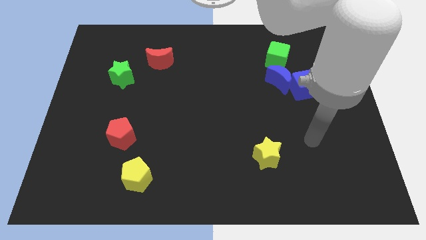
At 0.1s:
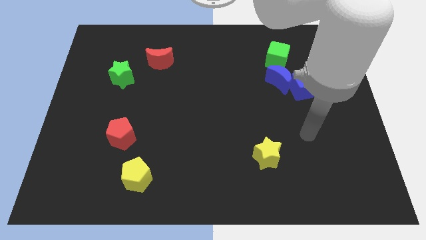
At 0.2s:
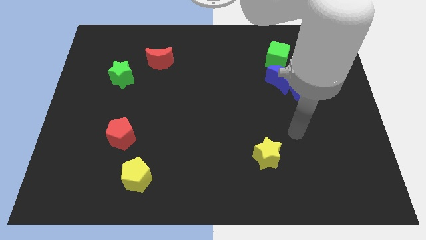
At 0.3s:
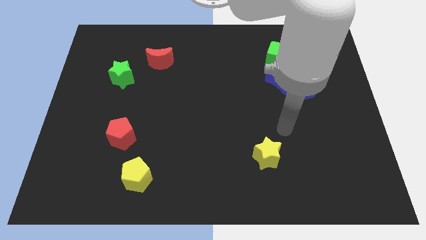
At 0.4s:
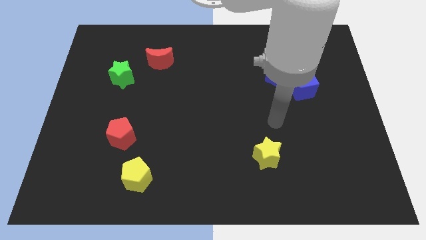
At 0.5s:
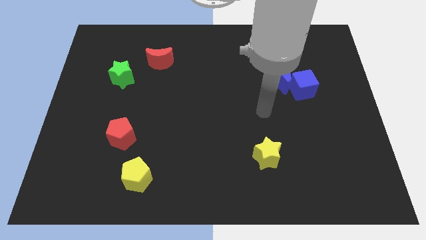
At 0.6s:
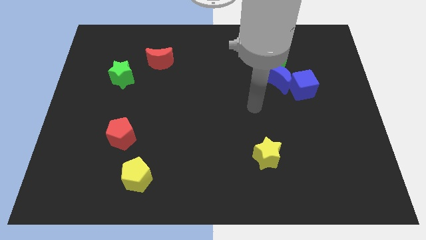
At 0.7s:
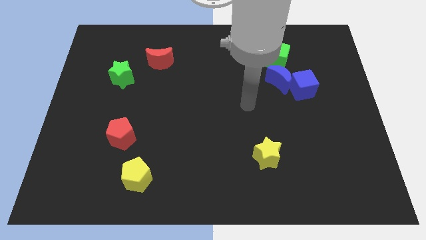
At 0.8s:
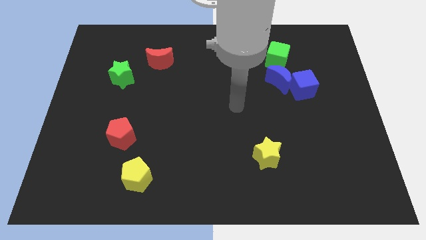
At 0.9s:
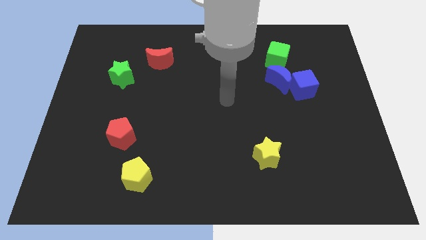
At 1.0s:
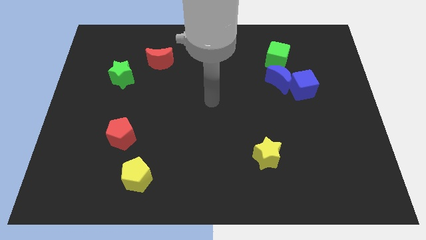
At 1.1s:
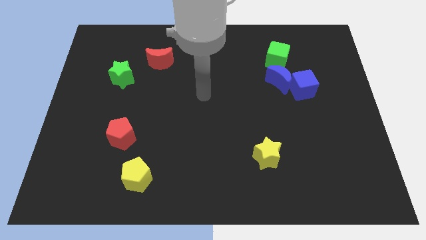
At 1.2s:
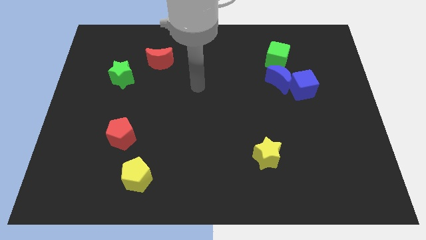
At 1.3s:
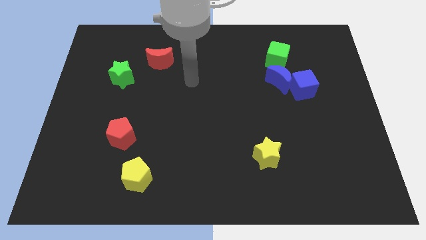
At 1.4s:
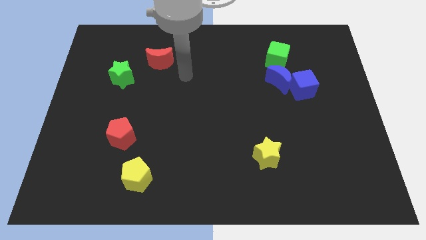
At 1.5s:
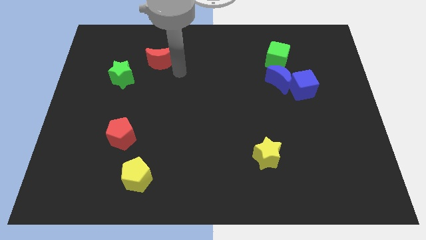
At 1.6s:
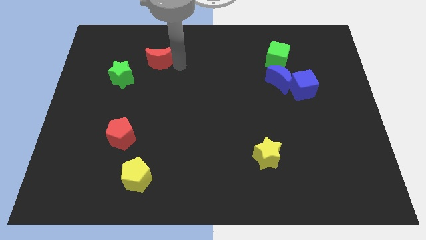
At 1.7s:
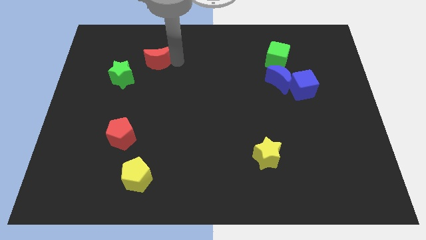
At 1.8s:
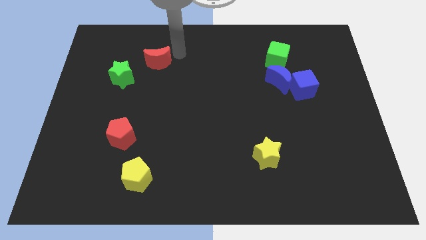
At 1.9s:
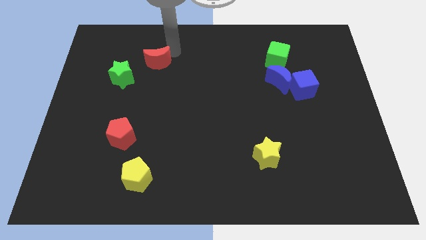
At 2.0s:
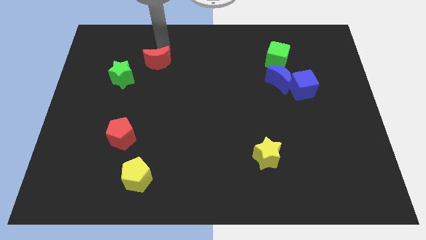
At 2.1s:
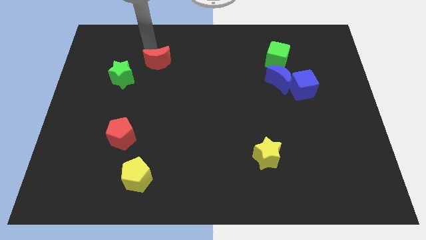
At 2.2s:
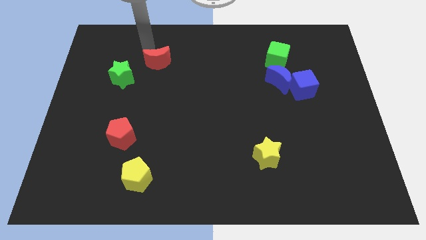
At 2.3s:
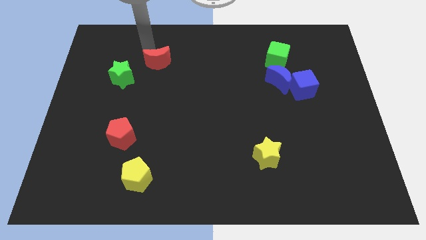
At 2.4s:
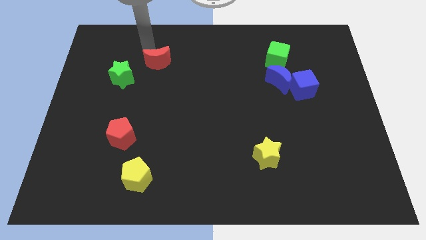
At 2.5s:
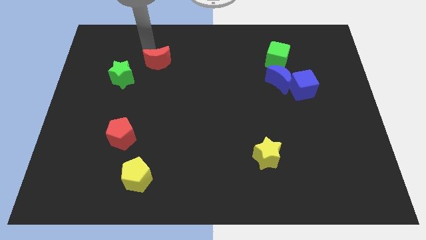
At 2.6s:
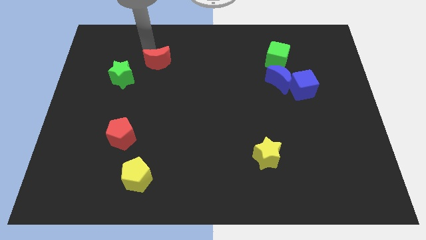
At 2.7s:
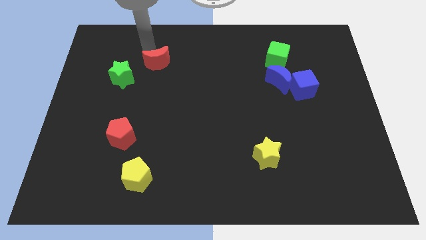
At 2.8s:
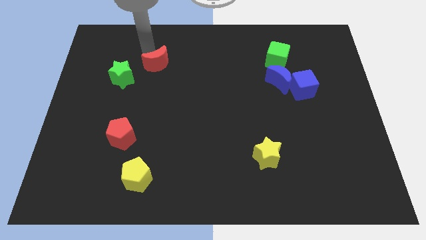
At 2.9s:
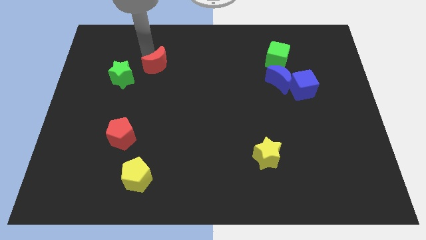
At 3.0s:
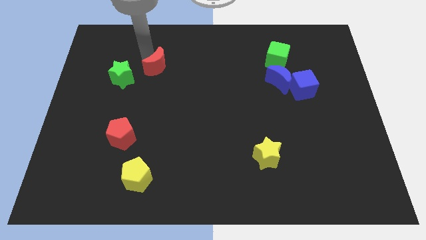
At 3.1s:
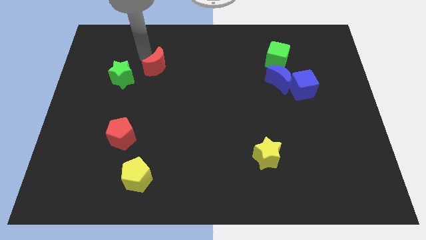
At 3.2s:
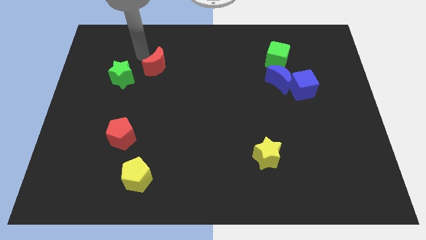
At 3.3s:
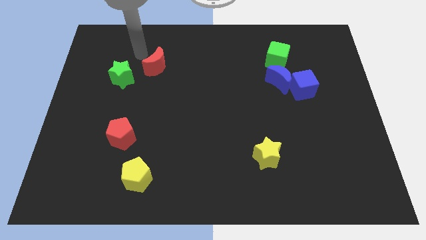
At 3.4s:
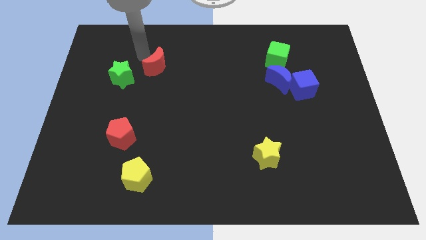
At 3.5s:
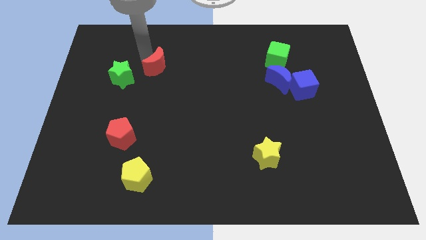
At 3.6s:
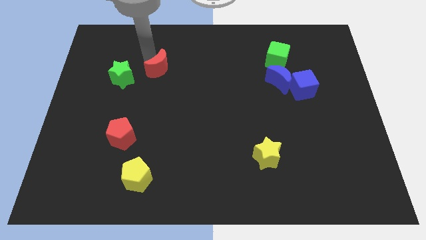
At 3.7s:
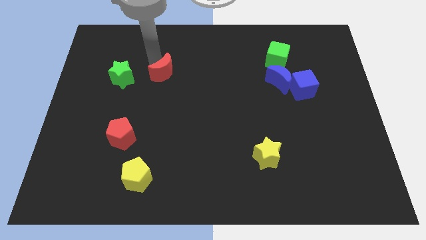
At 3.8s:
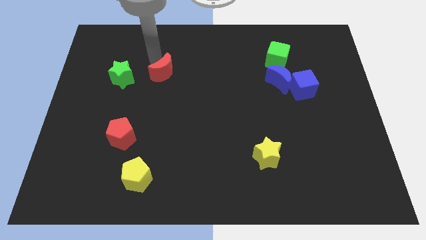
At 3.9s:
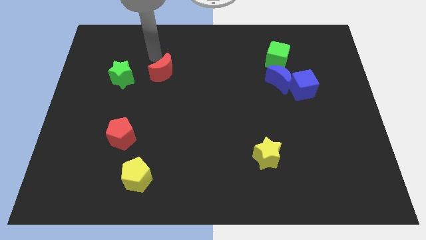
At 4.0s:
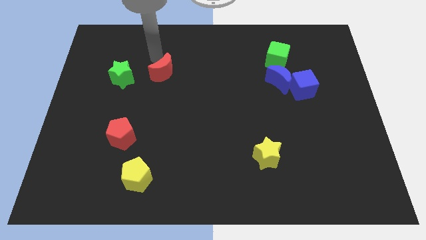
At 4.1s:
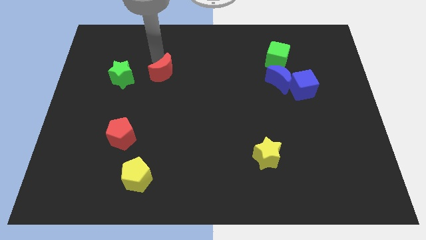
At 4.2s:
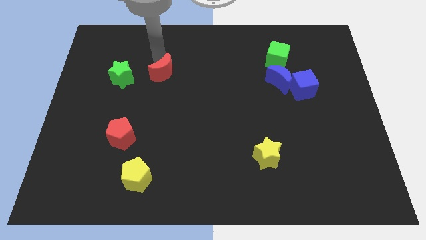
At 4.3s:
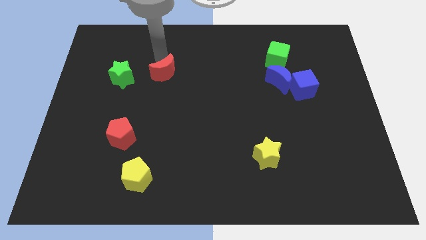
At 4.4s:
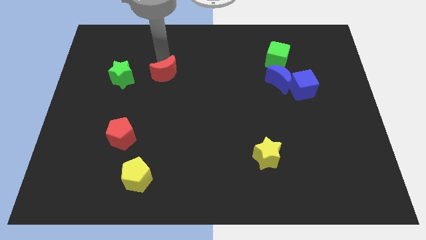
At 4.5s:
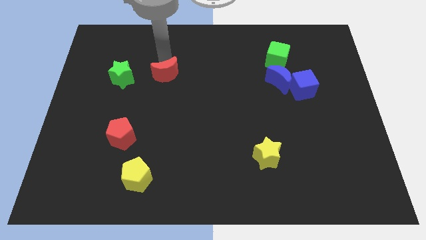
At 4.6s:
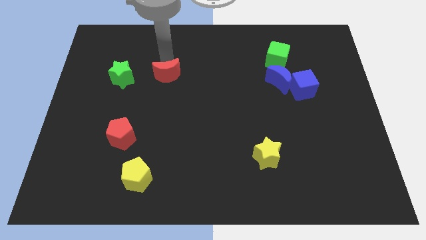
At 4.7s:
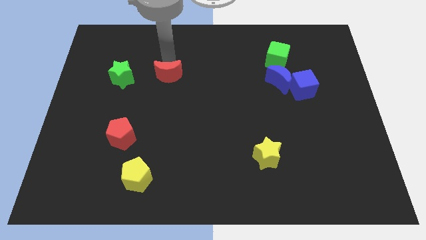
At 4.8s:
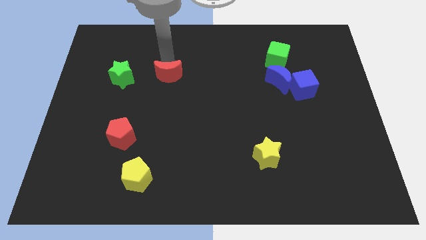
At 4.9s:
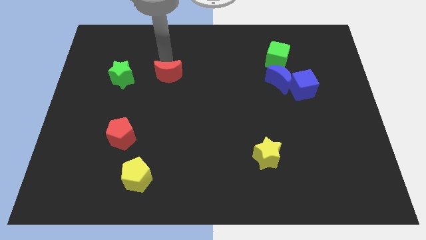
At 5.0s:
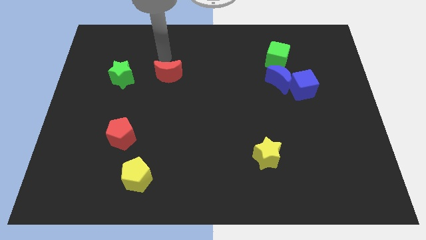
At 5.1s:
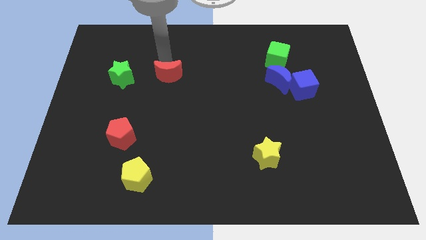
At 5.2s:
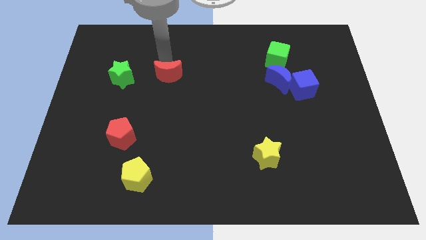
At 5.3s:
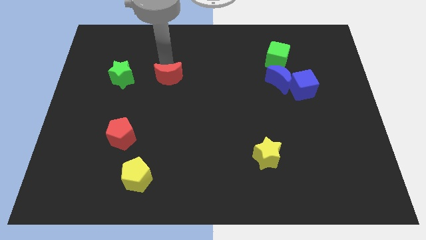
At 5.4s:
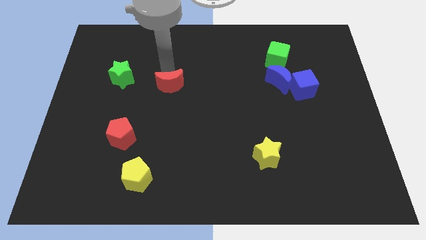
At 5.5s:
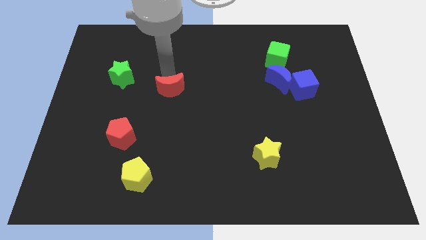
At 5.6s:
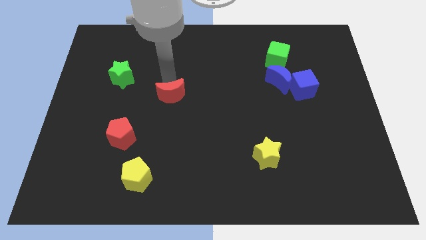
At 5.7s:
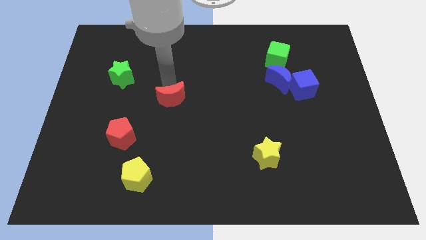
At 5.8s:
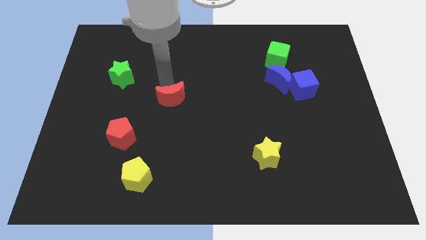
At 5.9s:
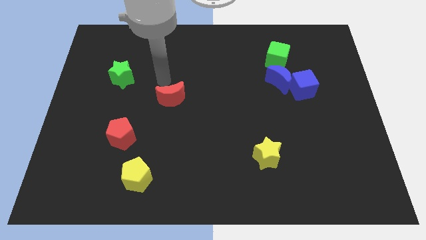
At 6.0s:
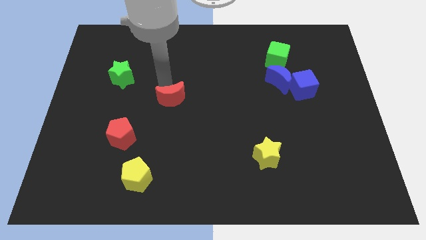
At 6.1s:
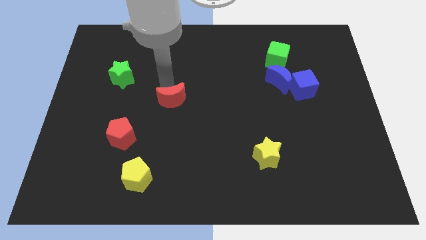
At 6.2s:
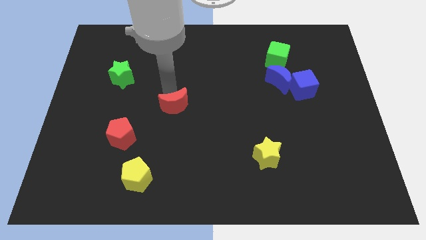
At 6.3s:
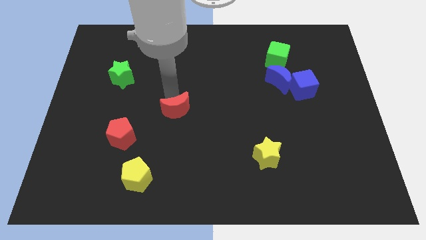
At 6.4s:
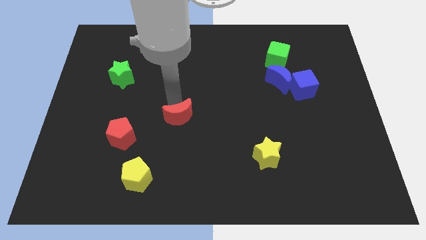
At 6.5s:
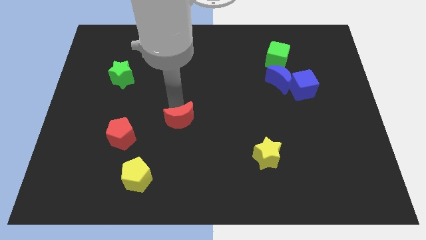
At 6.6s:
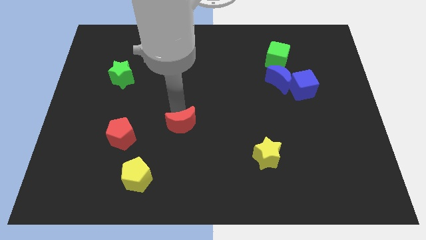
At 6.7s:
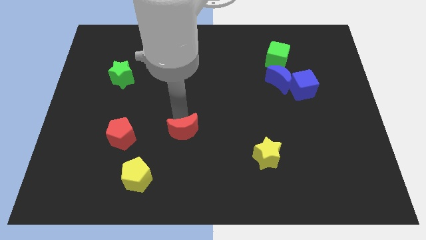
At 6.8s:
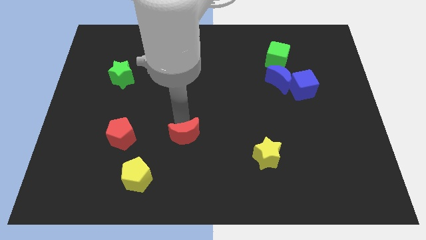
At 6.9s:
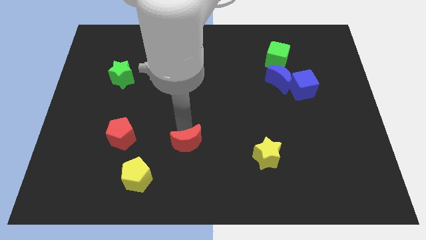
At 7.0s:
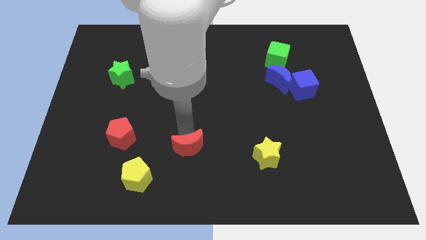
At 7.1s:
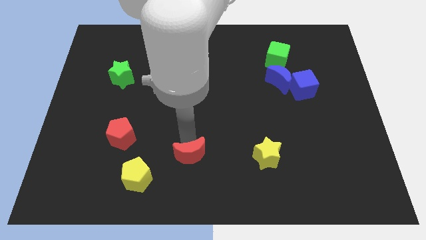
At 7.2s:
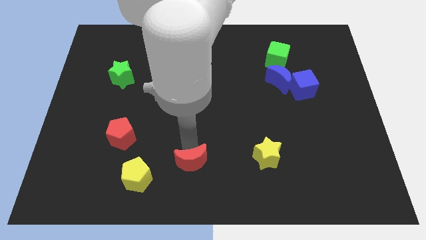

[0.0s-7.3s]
move the red moon to the bottom side
